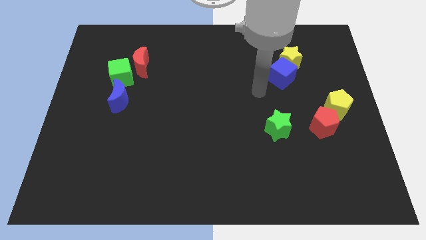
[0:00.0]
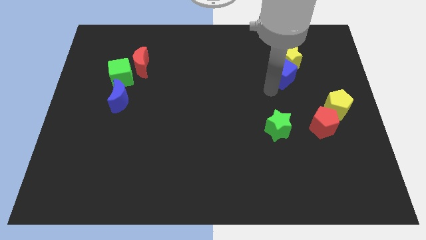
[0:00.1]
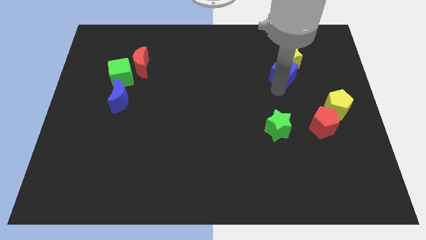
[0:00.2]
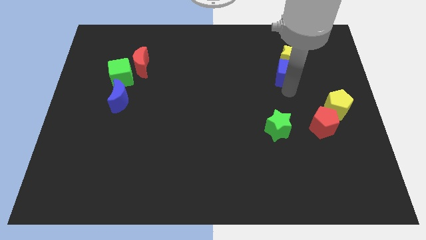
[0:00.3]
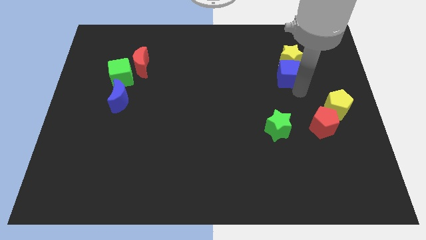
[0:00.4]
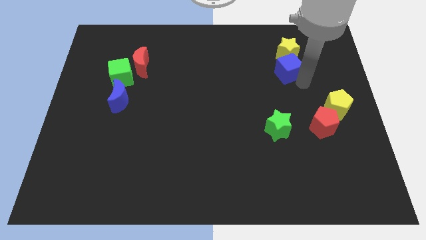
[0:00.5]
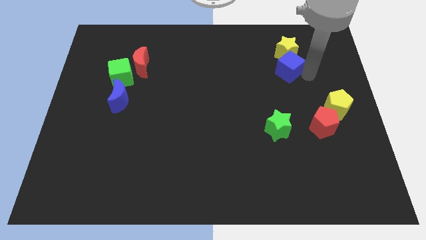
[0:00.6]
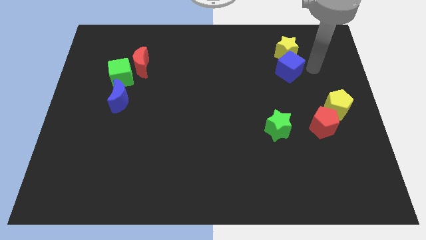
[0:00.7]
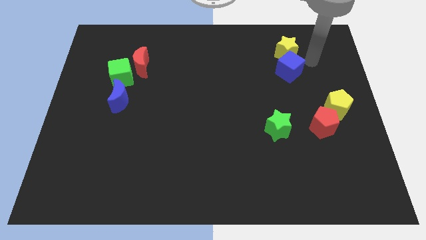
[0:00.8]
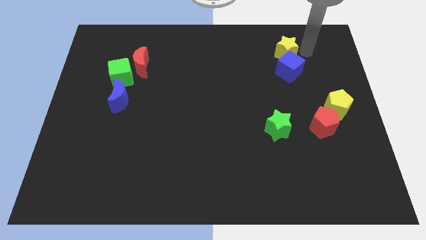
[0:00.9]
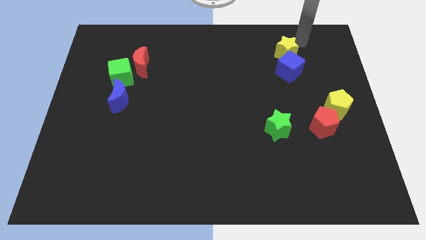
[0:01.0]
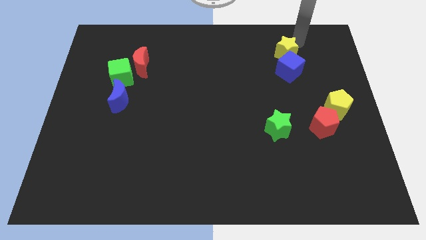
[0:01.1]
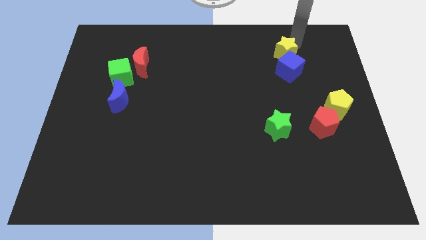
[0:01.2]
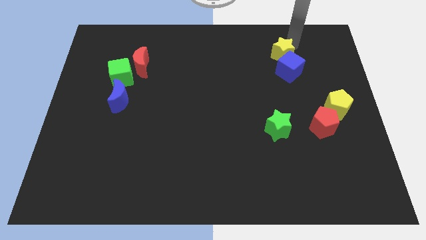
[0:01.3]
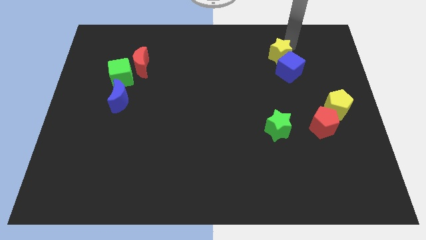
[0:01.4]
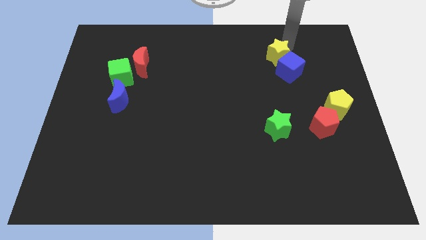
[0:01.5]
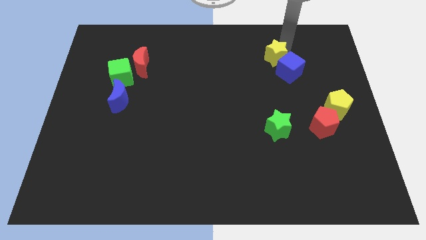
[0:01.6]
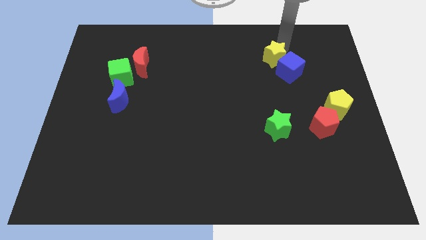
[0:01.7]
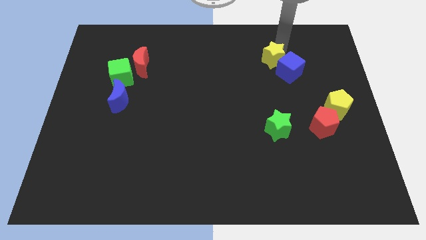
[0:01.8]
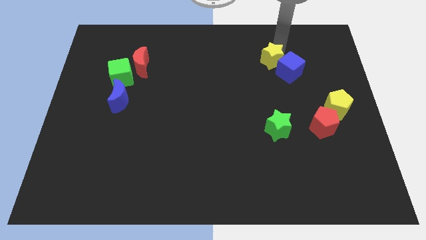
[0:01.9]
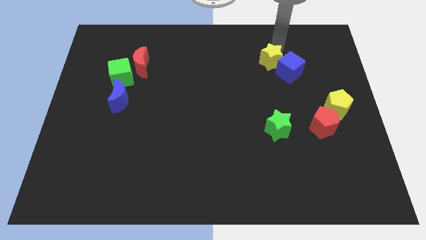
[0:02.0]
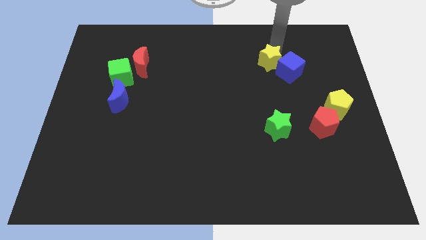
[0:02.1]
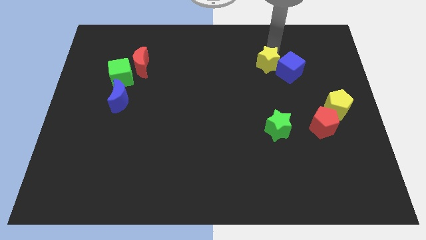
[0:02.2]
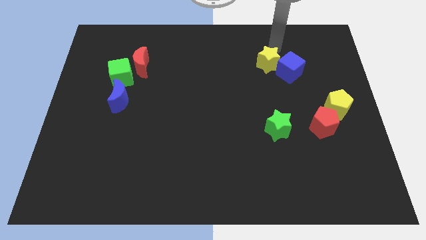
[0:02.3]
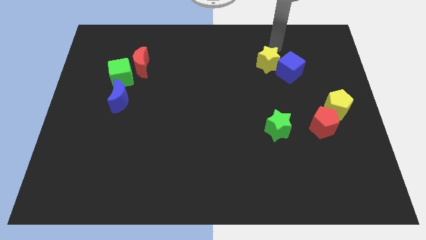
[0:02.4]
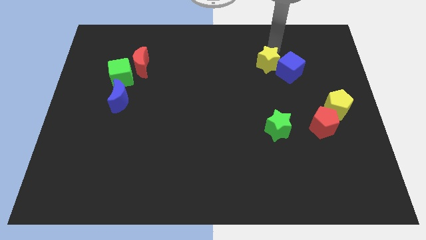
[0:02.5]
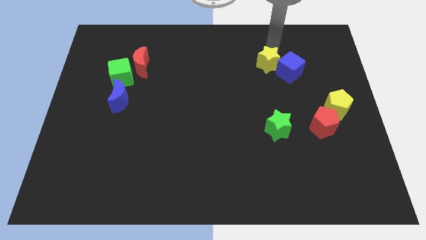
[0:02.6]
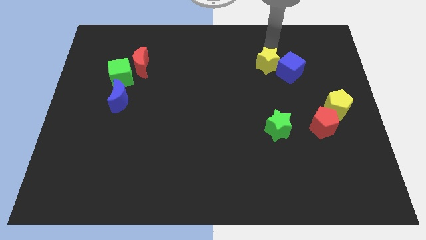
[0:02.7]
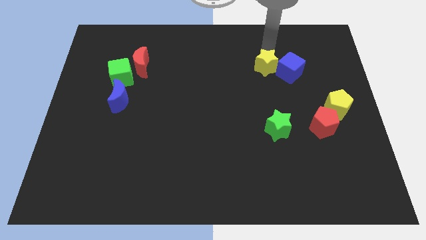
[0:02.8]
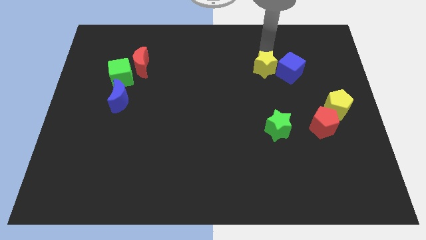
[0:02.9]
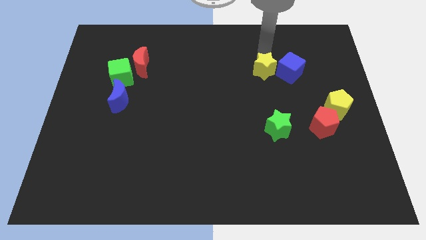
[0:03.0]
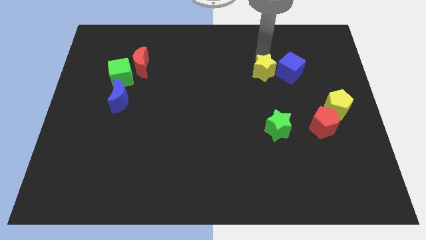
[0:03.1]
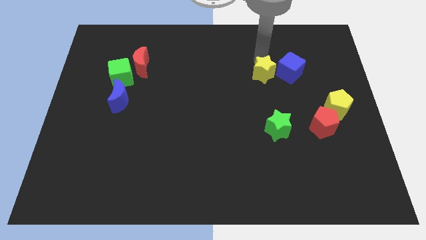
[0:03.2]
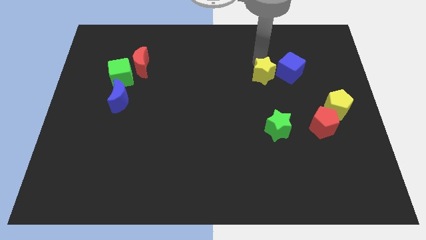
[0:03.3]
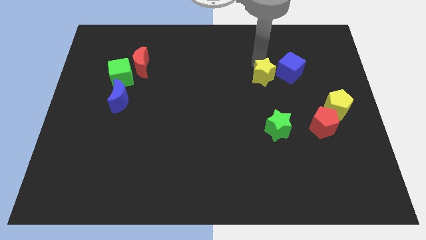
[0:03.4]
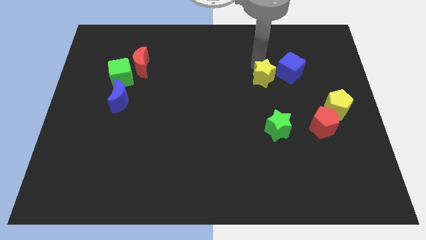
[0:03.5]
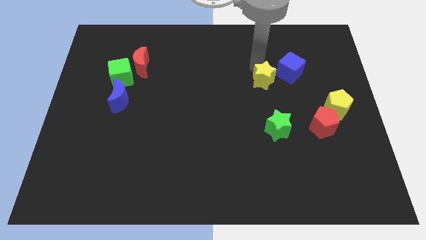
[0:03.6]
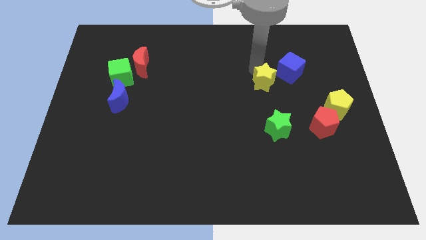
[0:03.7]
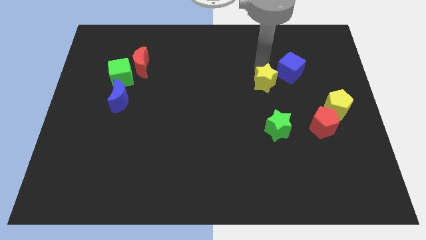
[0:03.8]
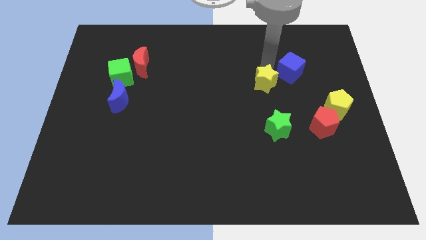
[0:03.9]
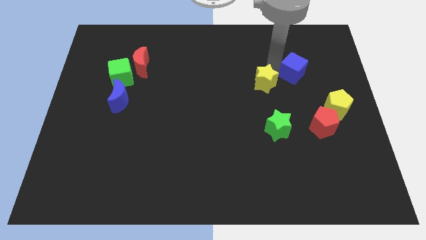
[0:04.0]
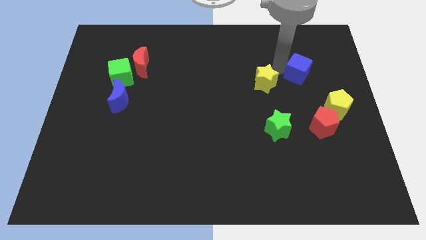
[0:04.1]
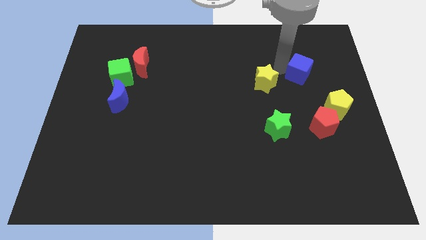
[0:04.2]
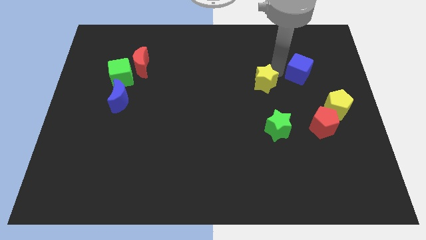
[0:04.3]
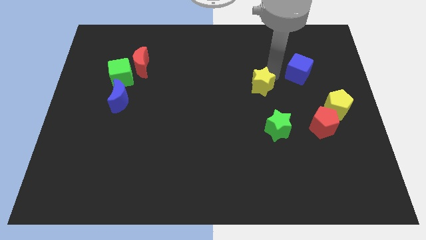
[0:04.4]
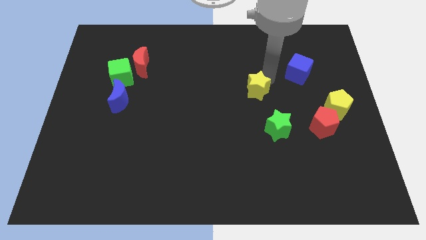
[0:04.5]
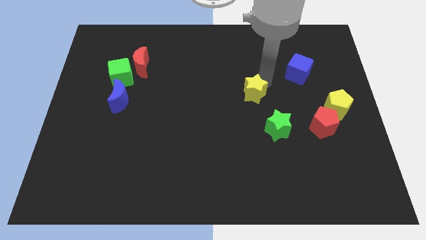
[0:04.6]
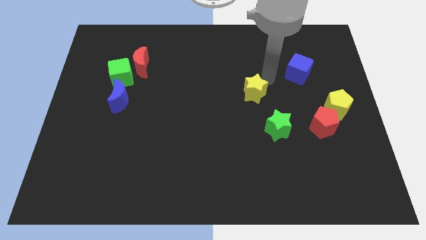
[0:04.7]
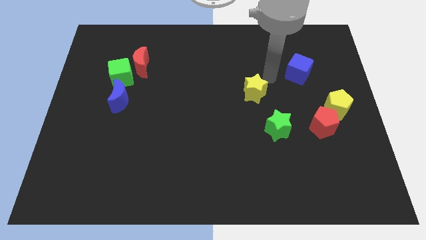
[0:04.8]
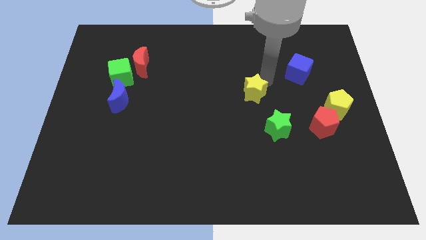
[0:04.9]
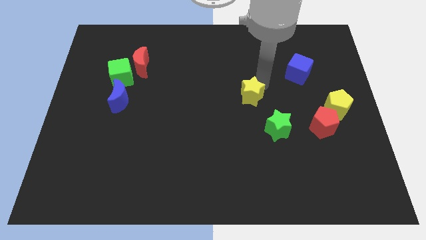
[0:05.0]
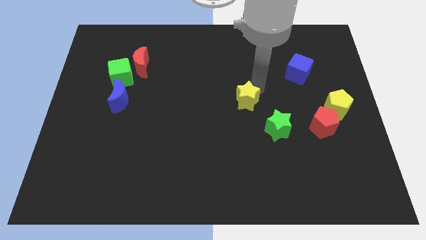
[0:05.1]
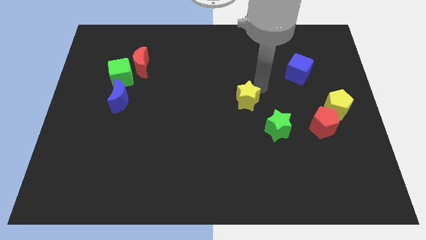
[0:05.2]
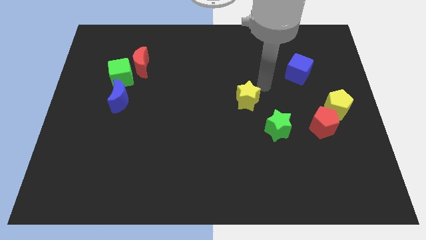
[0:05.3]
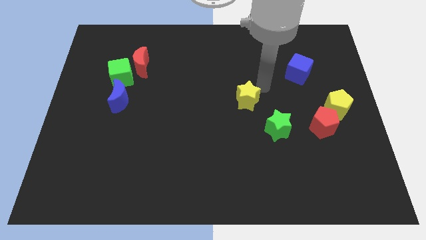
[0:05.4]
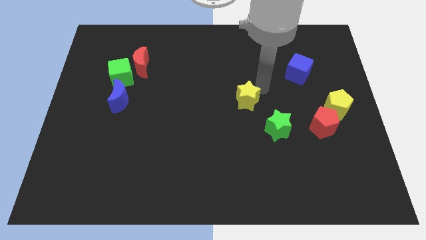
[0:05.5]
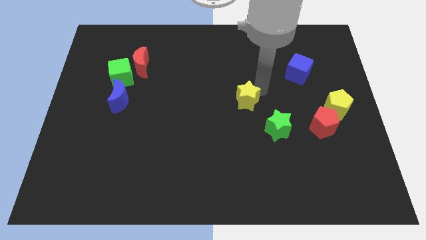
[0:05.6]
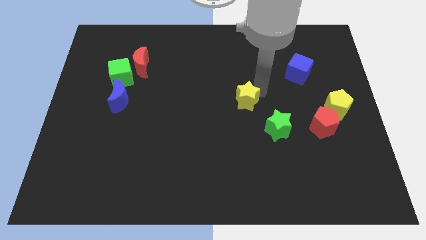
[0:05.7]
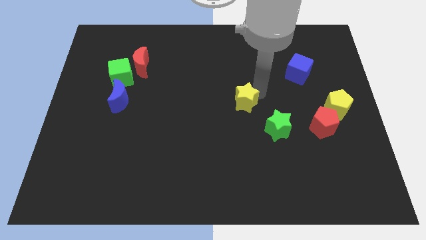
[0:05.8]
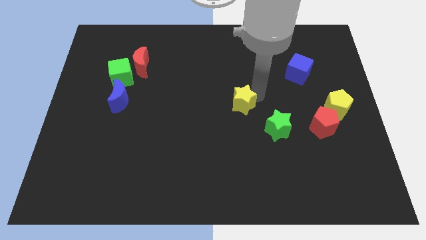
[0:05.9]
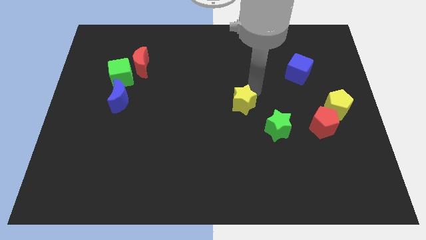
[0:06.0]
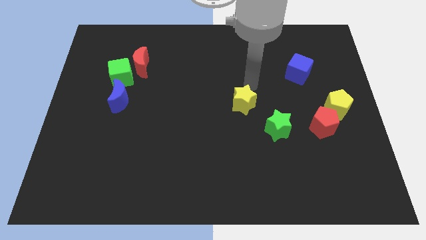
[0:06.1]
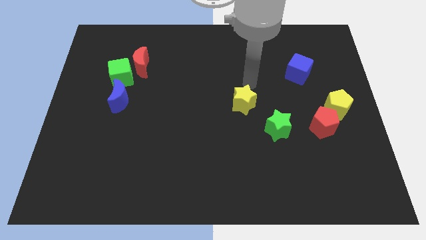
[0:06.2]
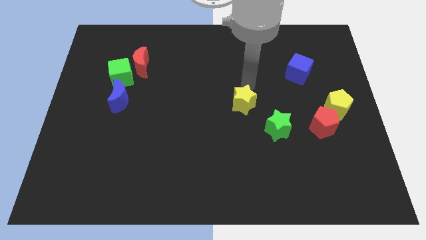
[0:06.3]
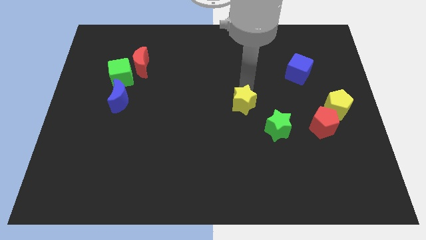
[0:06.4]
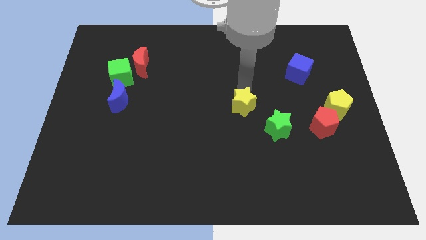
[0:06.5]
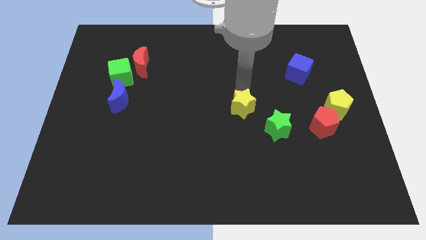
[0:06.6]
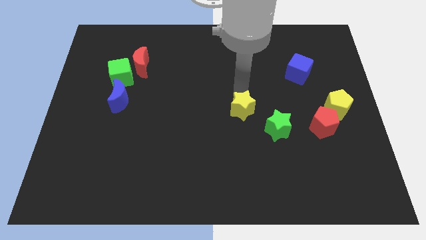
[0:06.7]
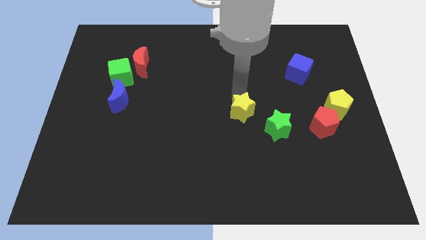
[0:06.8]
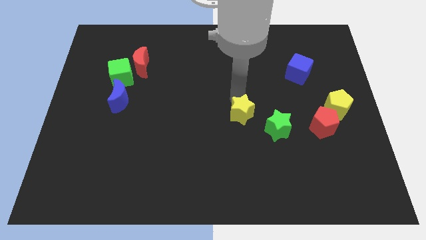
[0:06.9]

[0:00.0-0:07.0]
put the yellow star to the left of the green star
